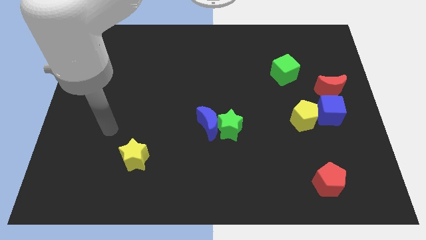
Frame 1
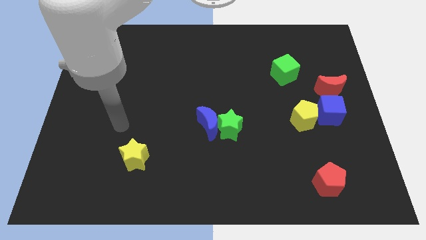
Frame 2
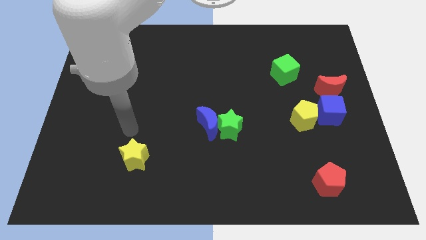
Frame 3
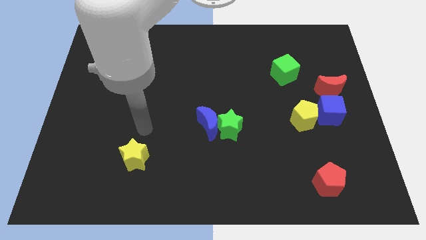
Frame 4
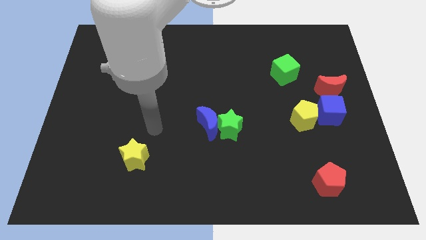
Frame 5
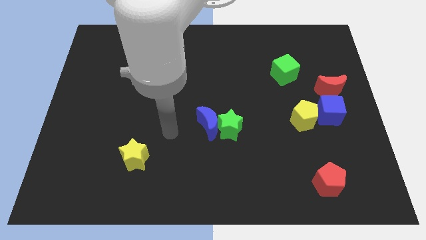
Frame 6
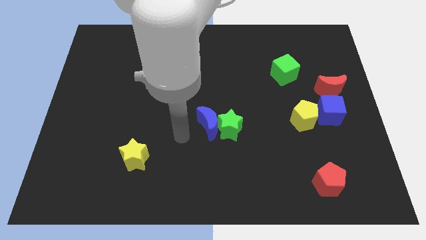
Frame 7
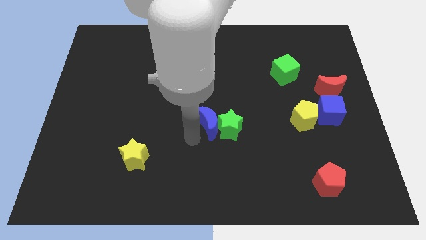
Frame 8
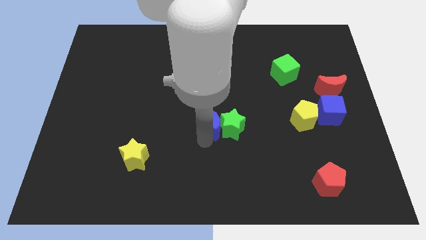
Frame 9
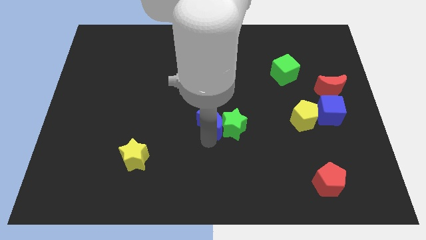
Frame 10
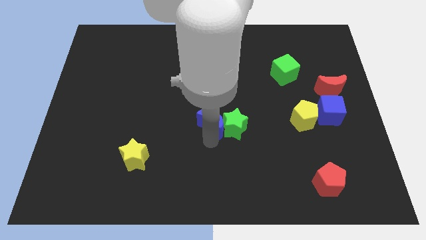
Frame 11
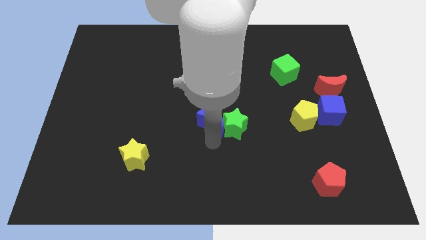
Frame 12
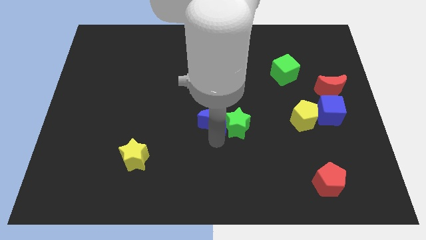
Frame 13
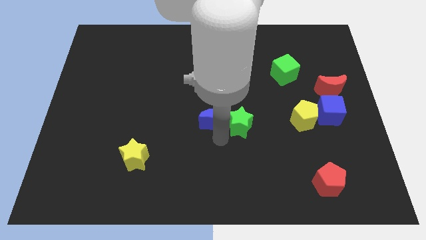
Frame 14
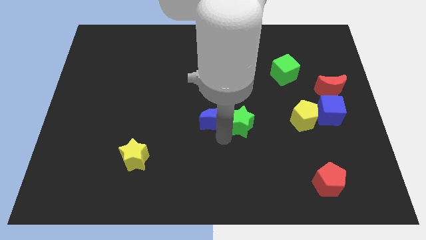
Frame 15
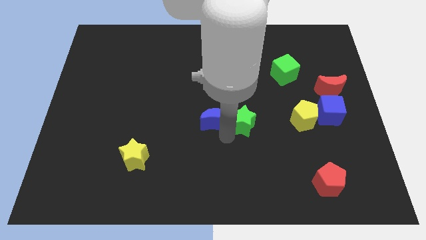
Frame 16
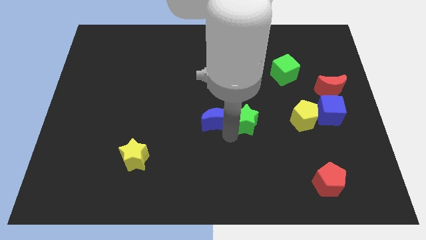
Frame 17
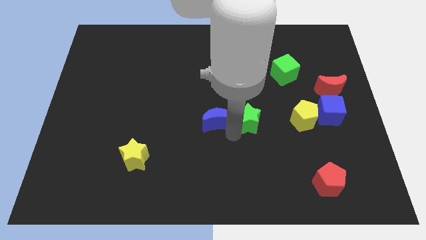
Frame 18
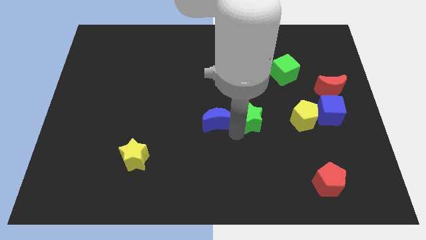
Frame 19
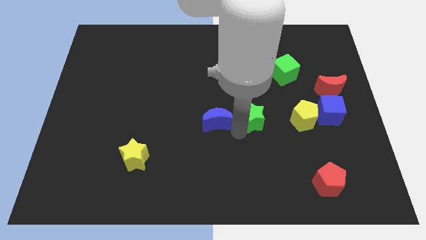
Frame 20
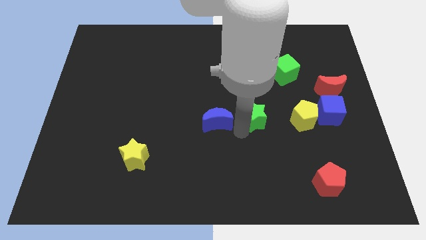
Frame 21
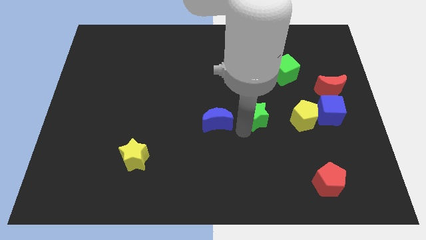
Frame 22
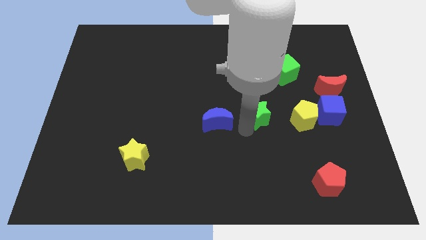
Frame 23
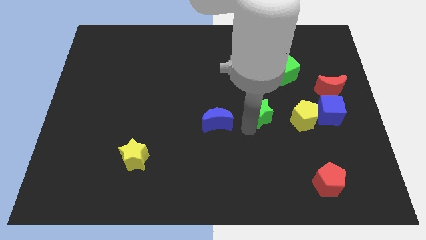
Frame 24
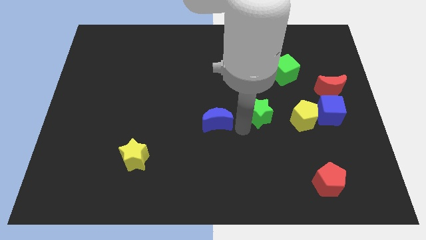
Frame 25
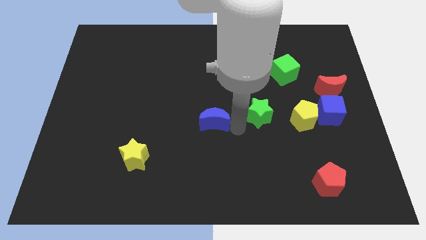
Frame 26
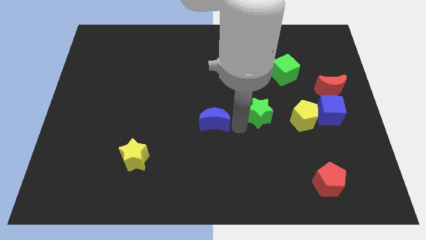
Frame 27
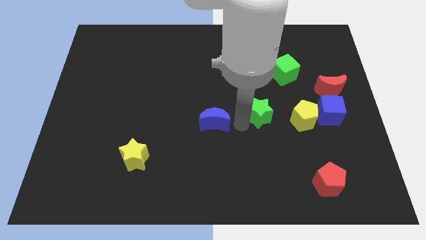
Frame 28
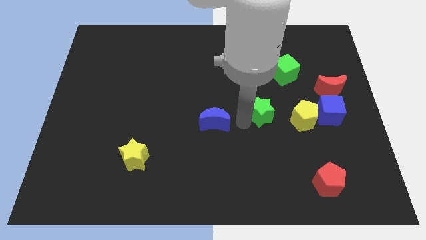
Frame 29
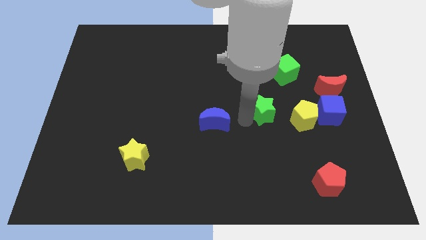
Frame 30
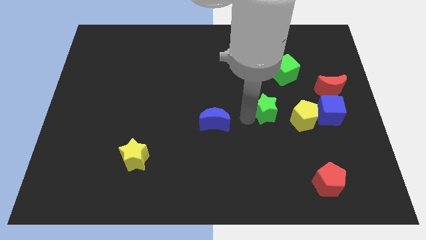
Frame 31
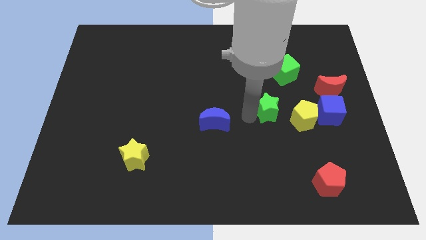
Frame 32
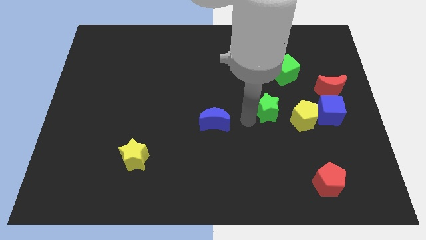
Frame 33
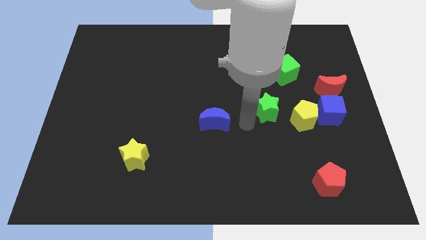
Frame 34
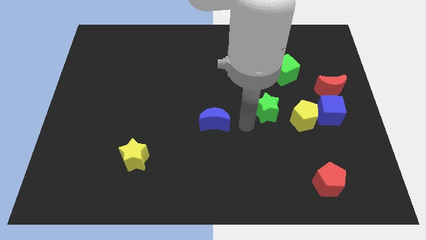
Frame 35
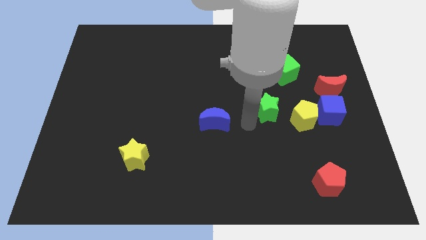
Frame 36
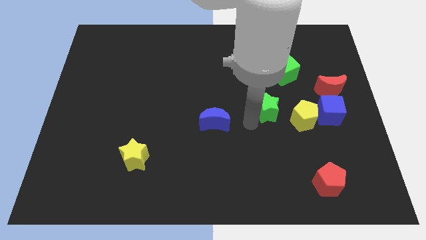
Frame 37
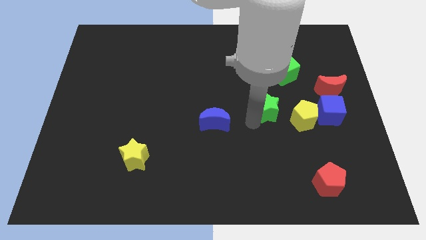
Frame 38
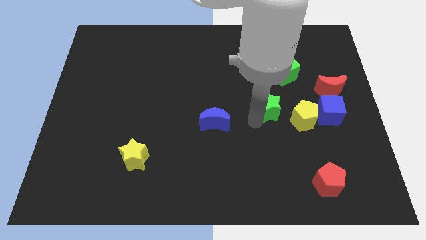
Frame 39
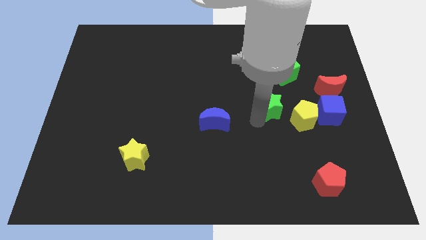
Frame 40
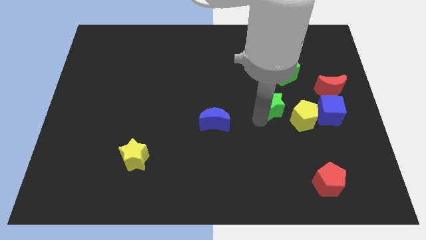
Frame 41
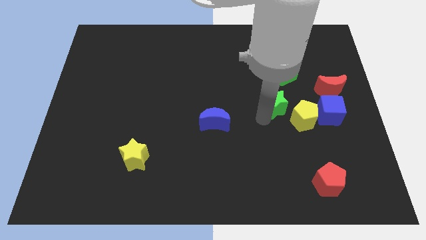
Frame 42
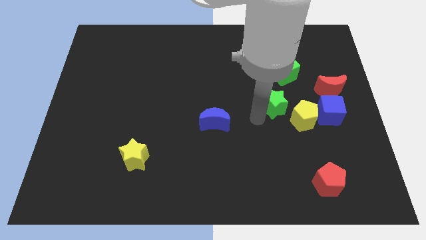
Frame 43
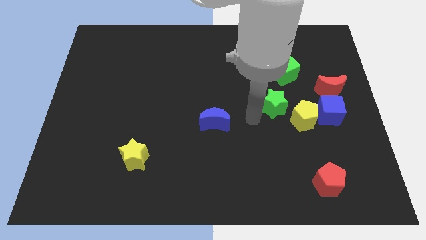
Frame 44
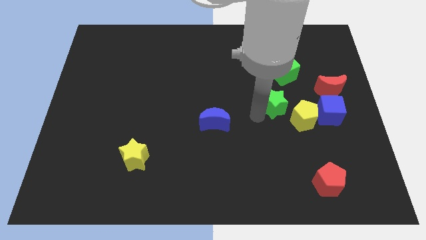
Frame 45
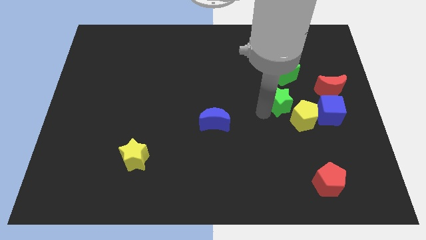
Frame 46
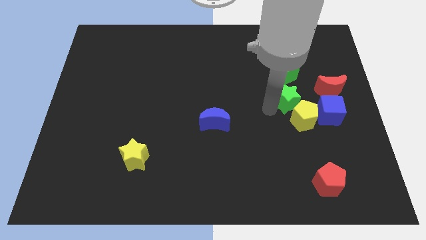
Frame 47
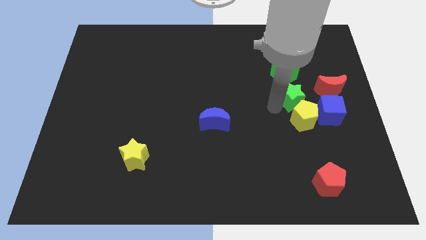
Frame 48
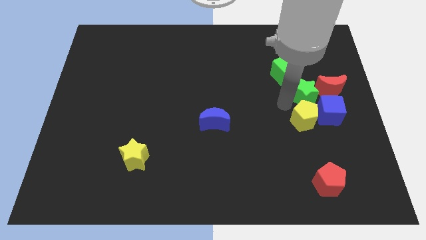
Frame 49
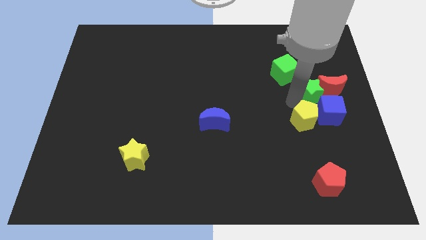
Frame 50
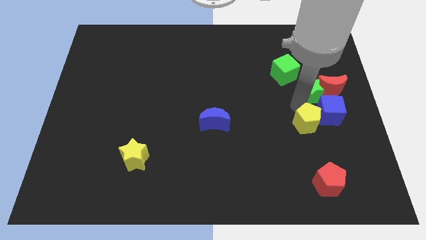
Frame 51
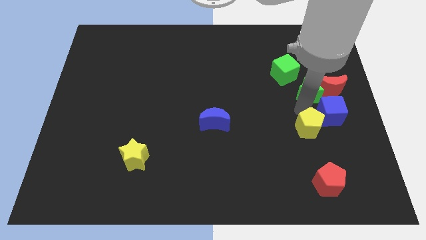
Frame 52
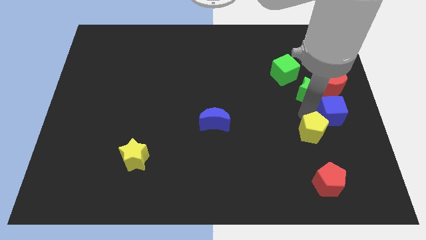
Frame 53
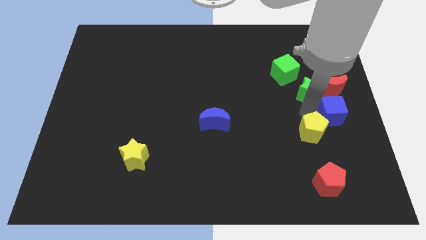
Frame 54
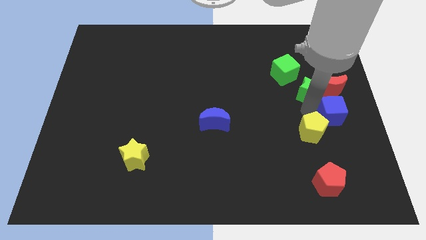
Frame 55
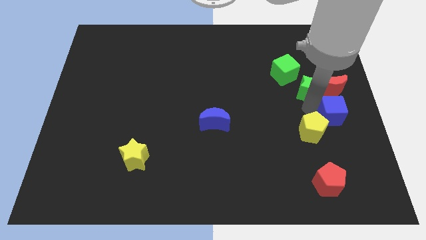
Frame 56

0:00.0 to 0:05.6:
move the green star upwards and to the right

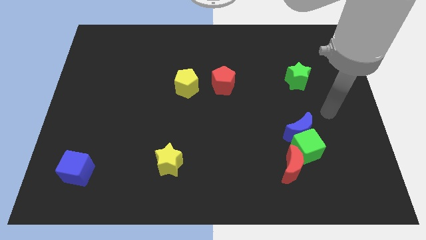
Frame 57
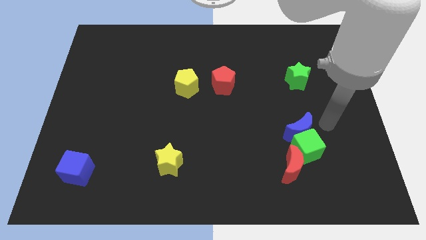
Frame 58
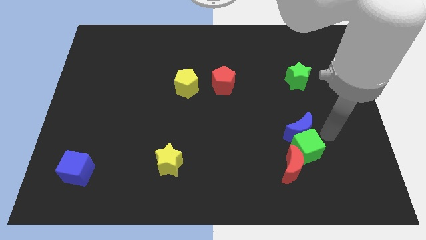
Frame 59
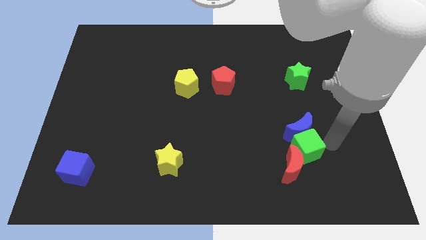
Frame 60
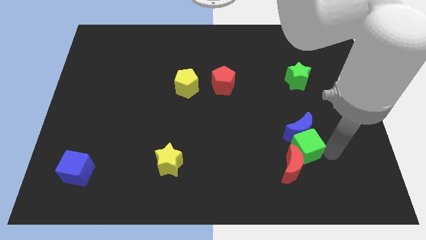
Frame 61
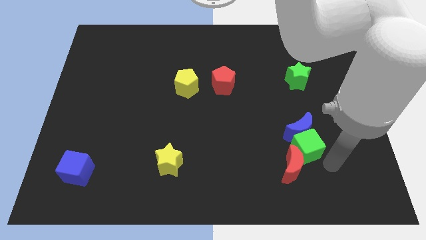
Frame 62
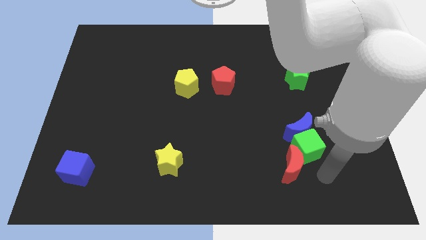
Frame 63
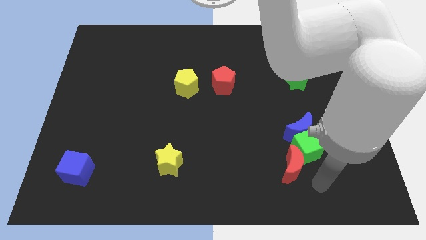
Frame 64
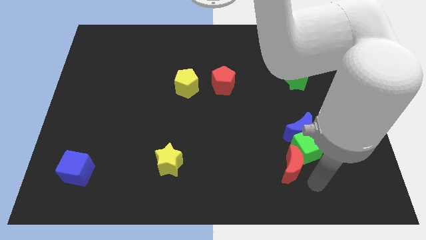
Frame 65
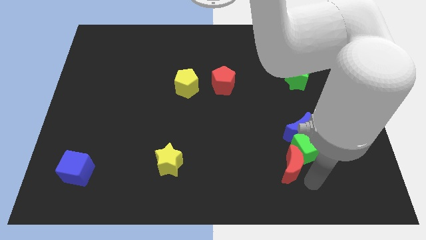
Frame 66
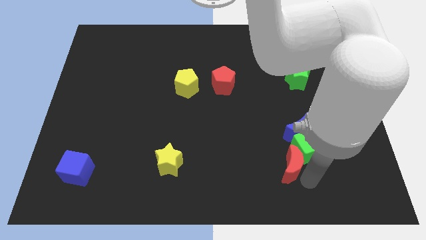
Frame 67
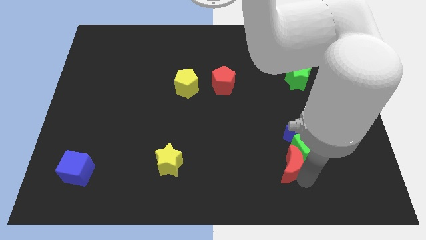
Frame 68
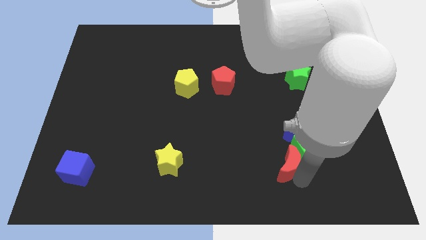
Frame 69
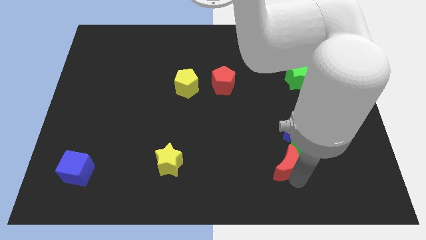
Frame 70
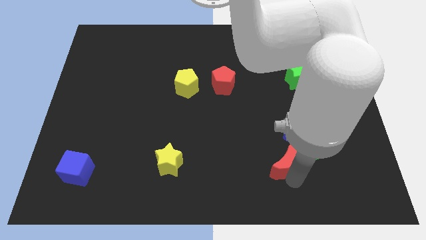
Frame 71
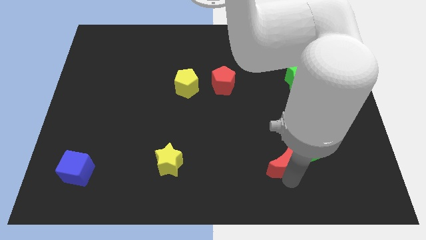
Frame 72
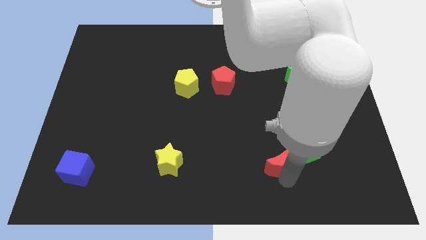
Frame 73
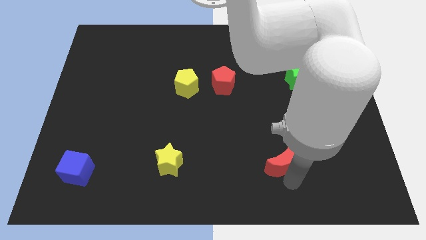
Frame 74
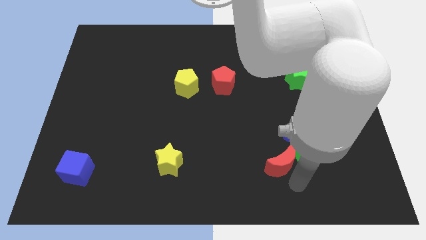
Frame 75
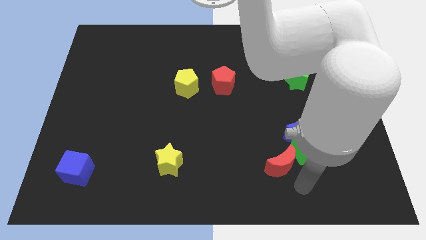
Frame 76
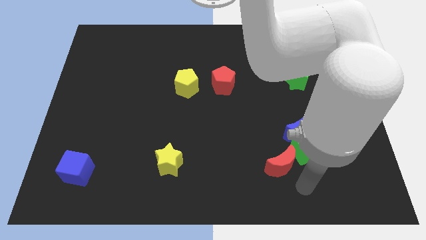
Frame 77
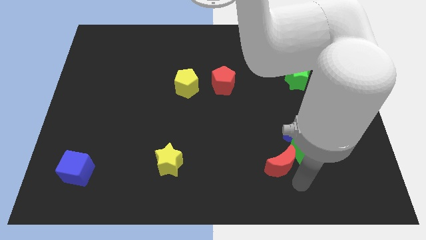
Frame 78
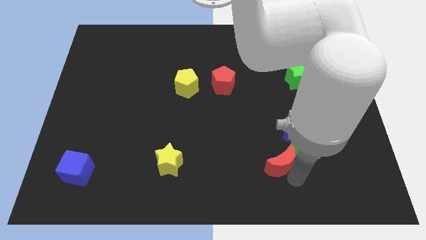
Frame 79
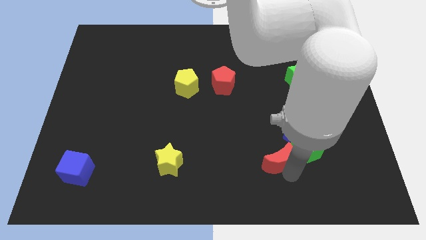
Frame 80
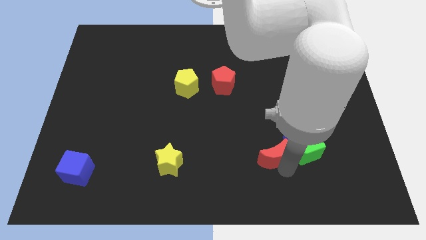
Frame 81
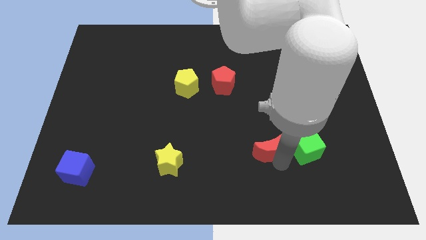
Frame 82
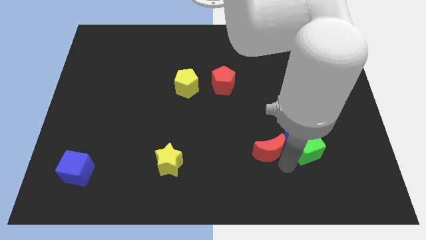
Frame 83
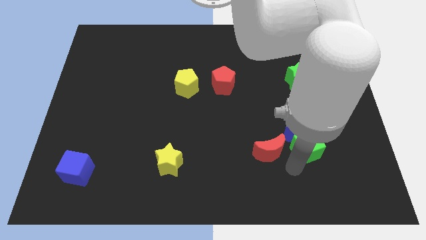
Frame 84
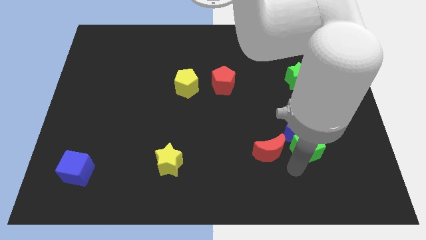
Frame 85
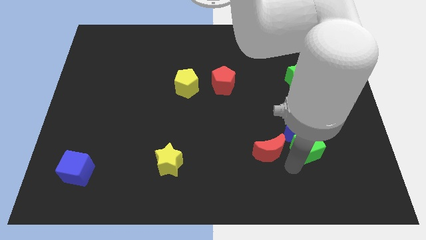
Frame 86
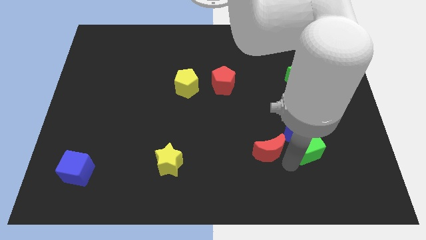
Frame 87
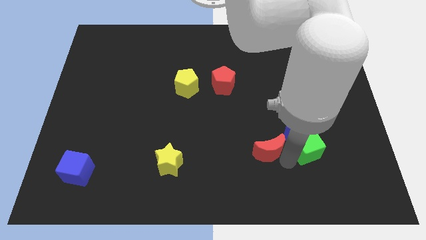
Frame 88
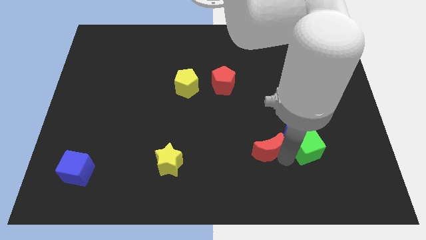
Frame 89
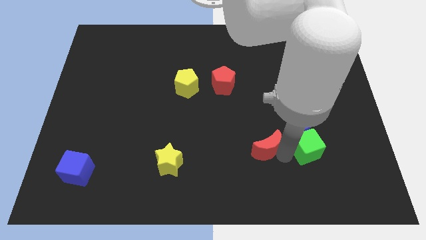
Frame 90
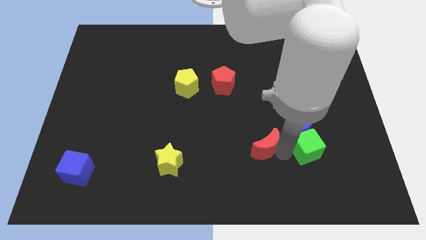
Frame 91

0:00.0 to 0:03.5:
move the red moon slightly up and then to the left
